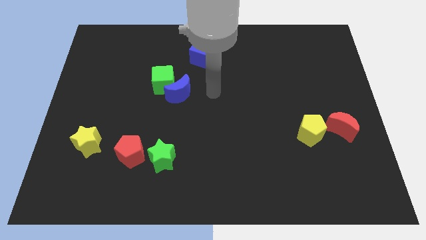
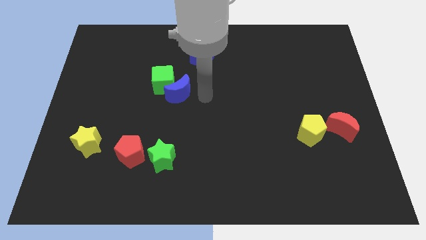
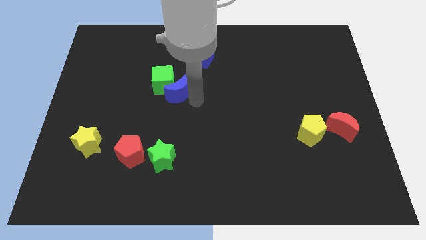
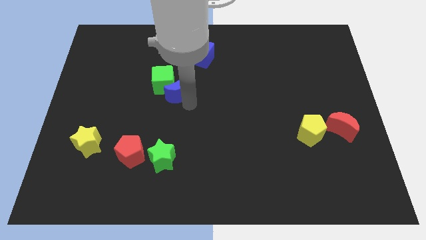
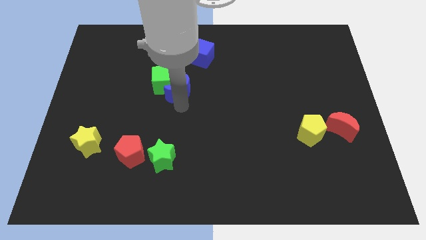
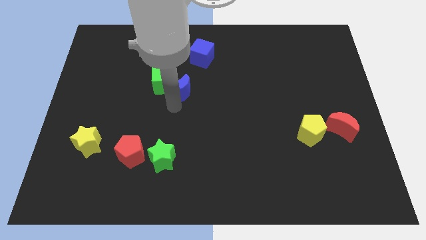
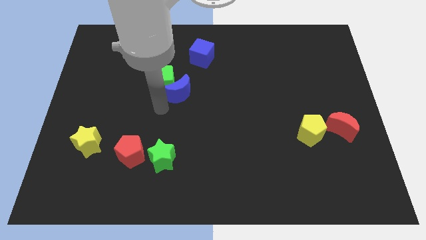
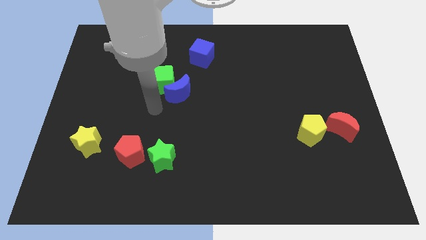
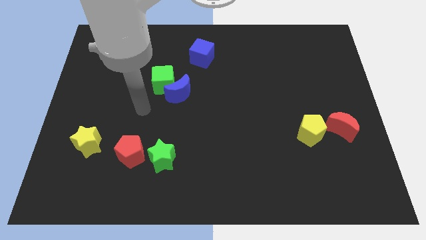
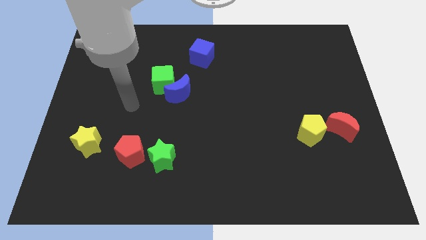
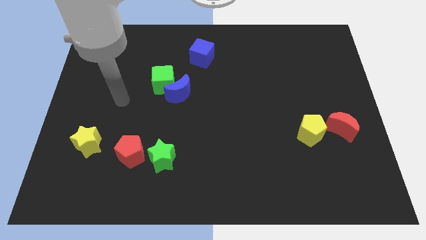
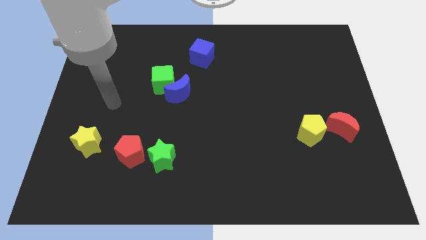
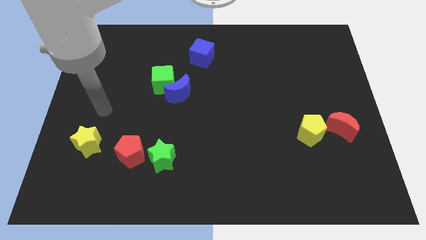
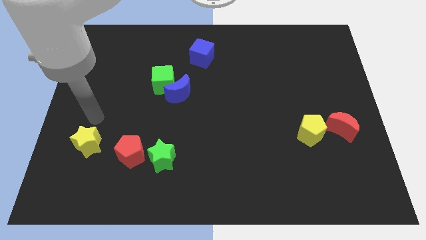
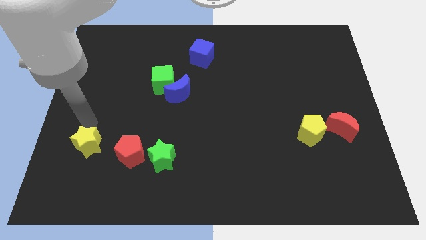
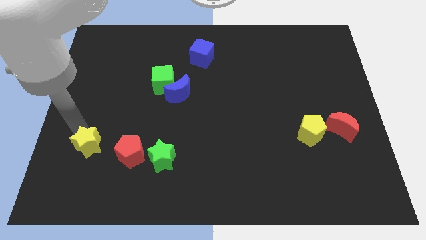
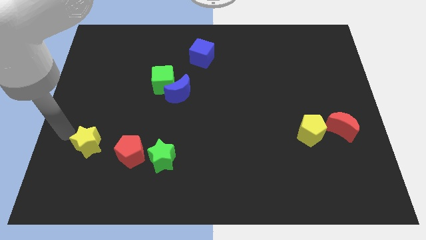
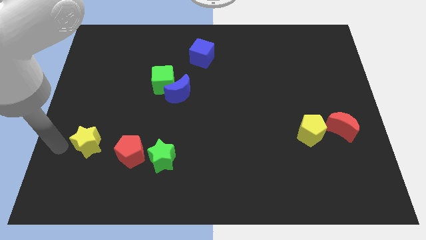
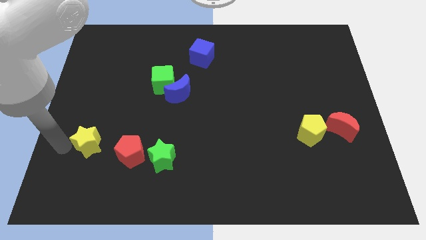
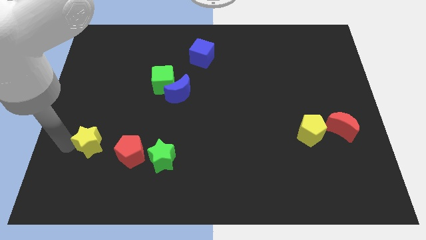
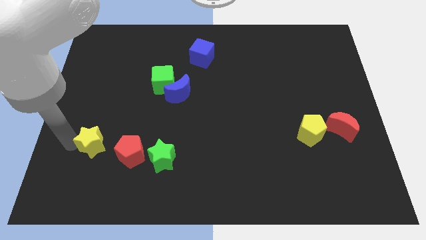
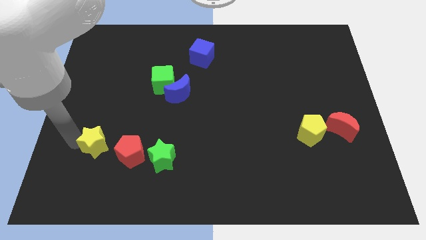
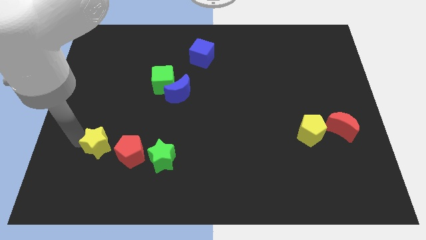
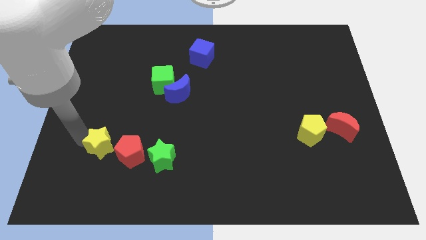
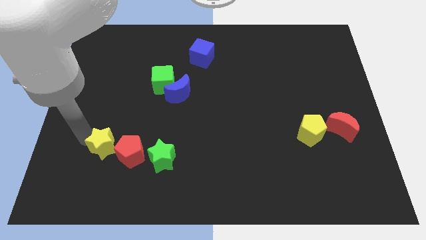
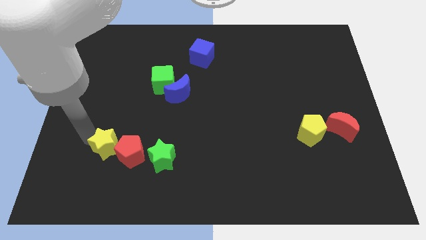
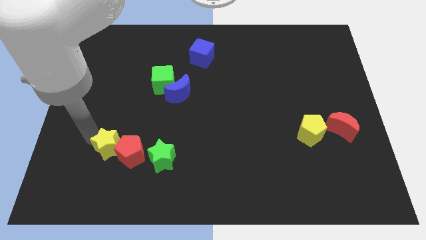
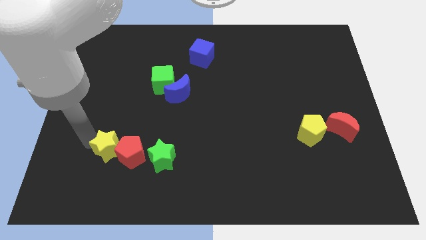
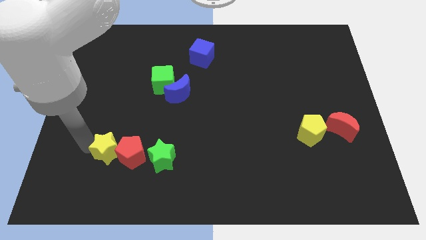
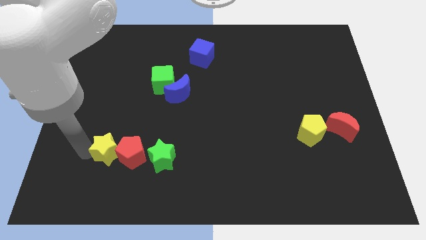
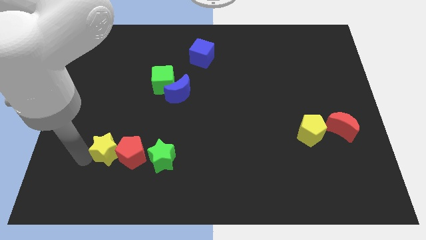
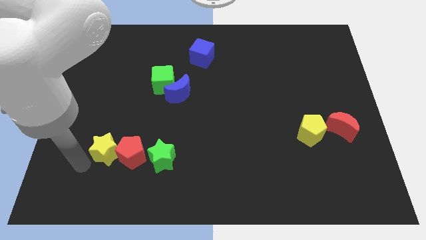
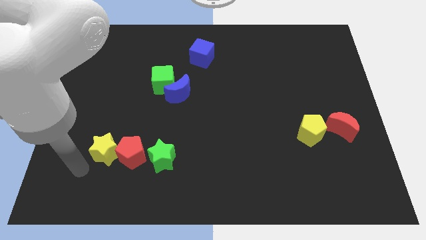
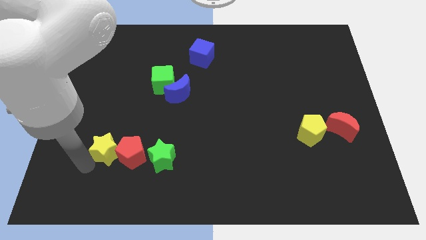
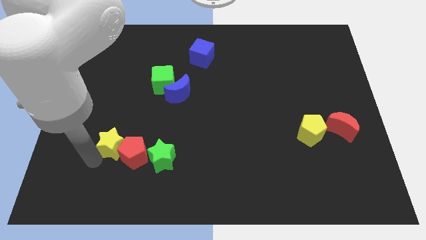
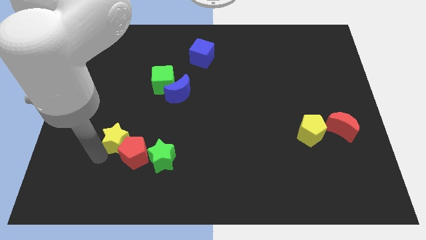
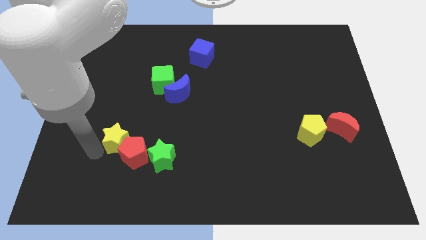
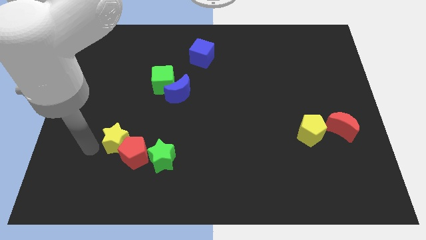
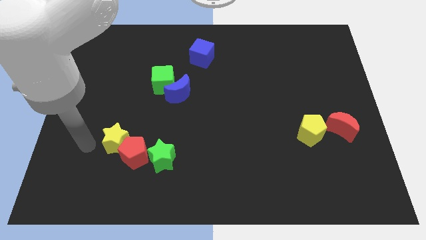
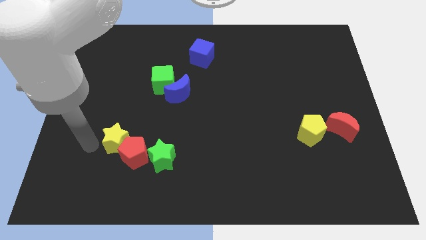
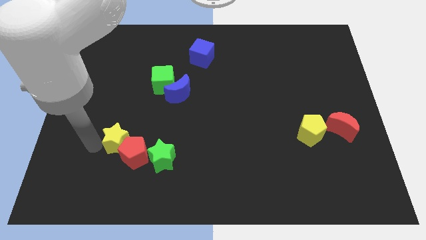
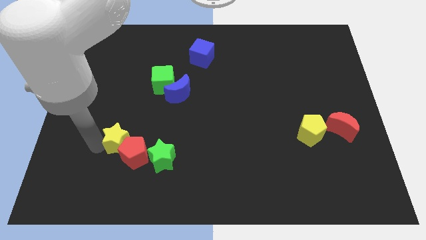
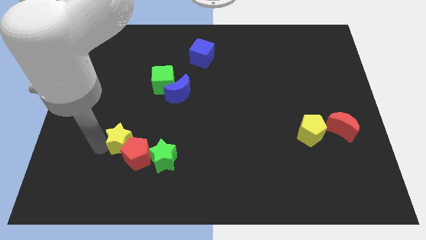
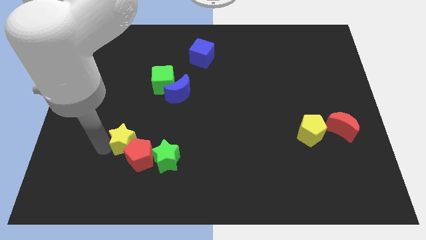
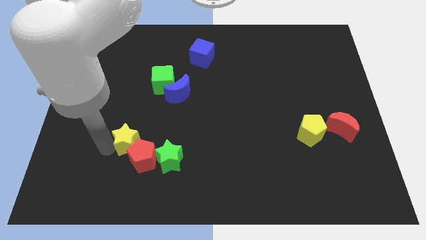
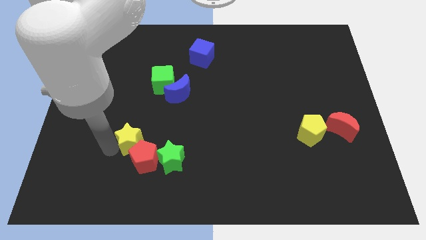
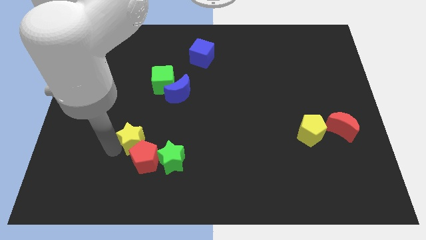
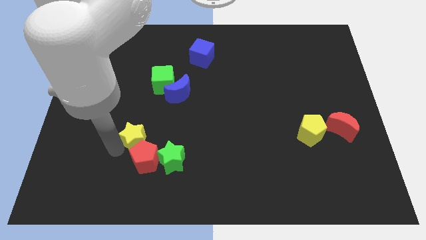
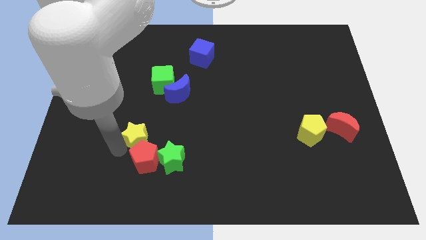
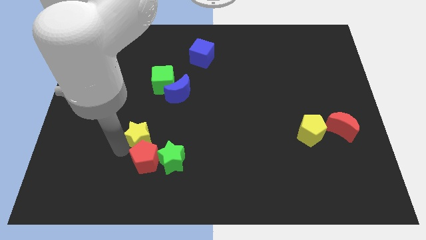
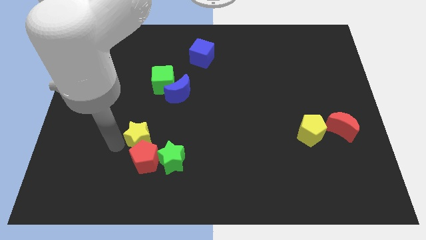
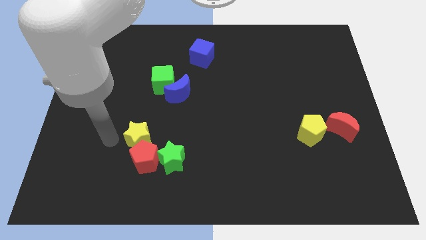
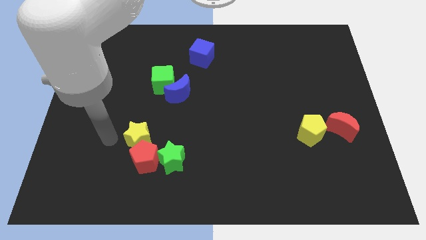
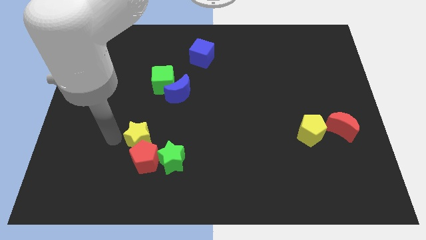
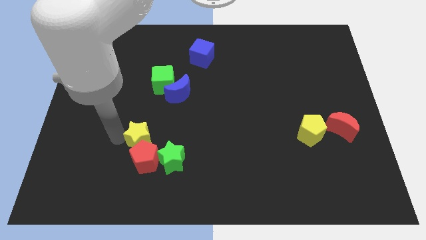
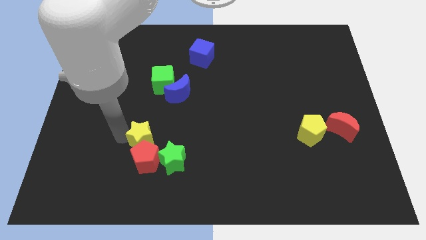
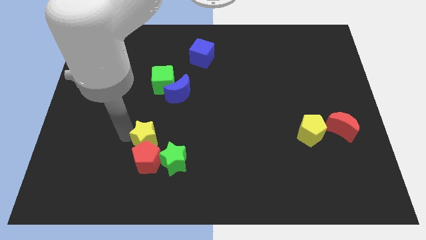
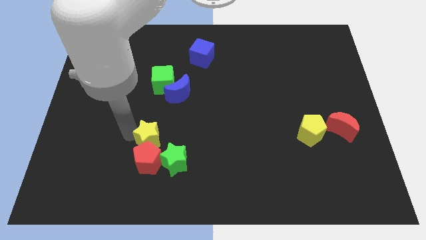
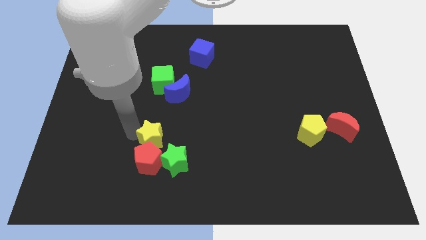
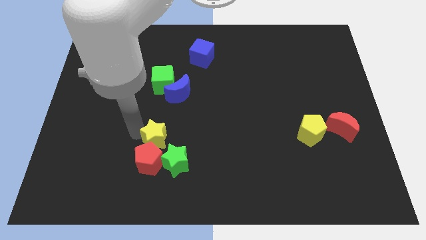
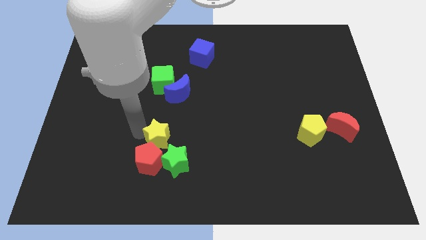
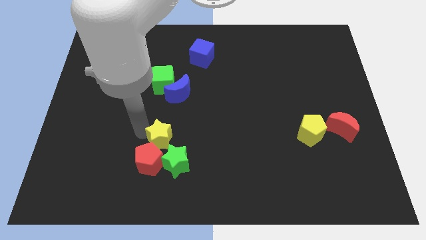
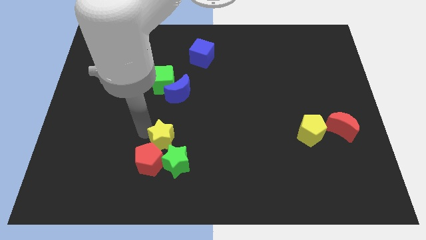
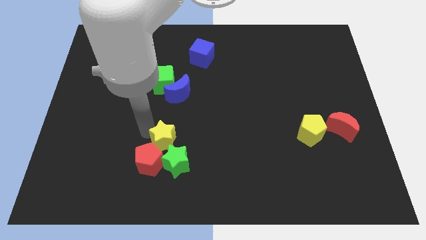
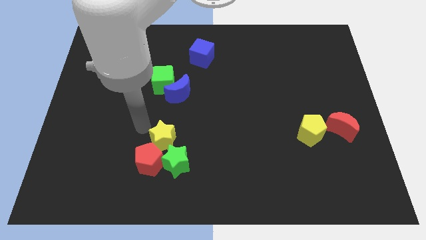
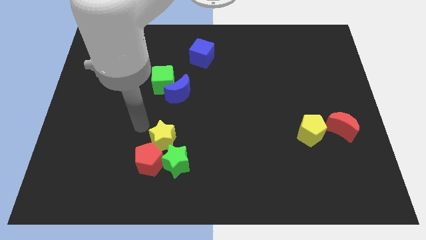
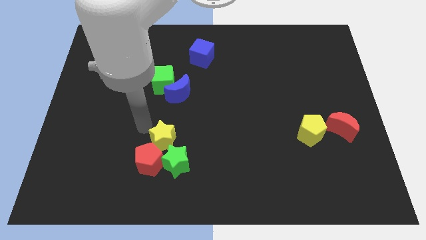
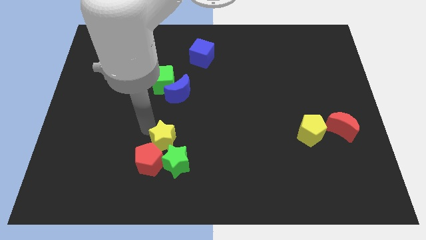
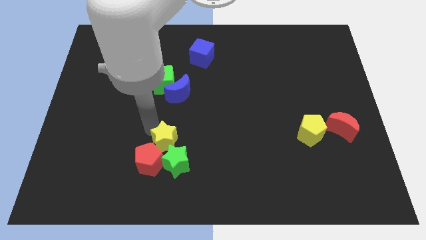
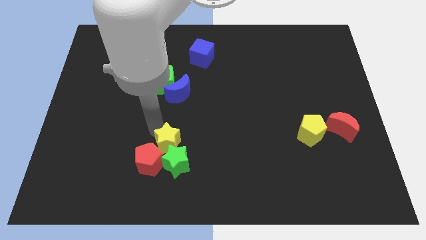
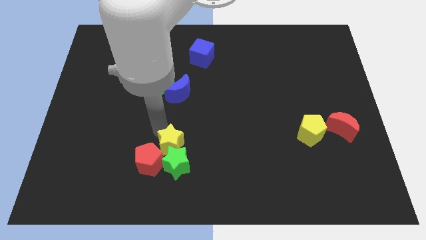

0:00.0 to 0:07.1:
put the yellow star right of the red pentagon
